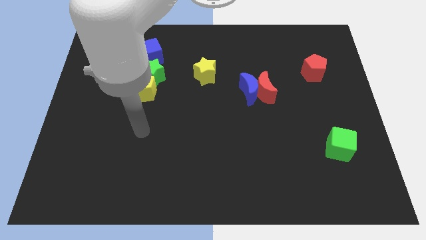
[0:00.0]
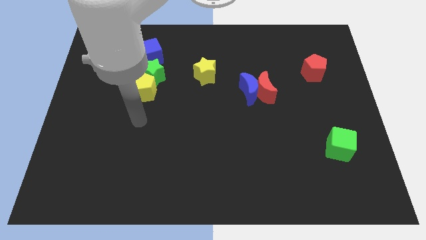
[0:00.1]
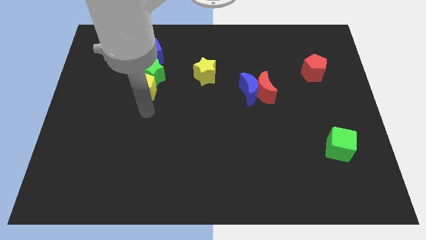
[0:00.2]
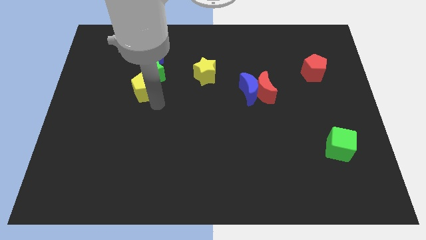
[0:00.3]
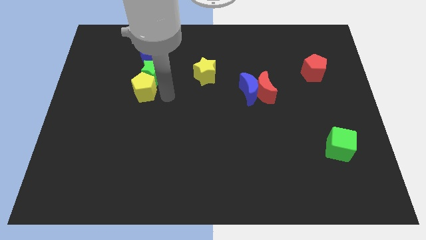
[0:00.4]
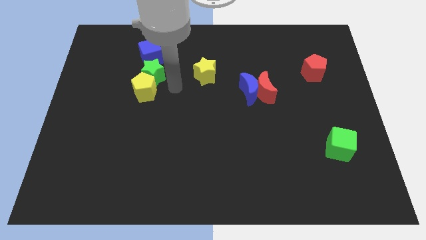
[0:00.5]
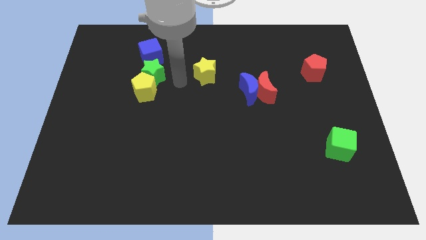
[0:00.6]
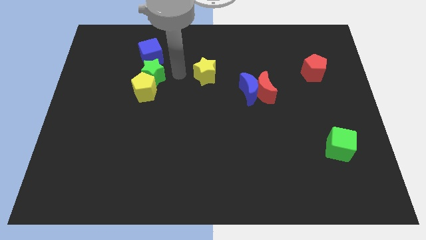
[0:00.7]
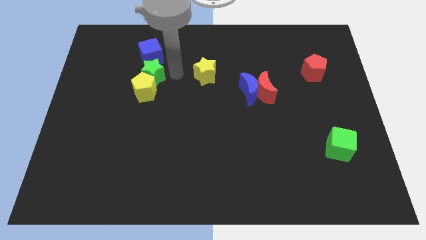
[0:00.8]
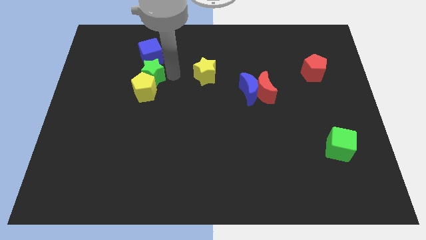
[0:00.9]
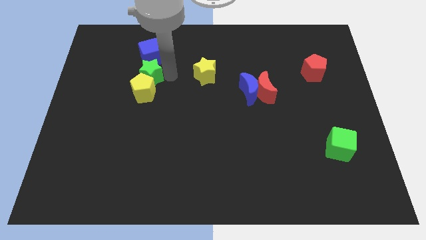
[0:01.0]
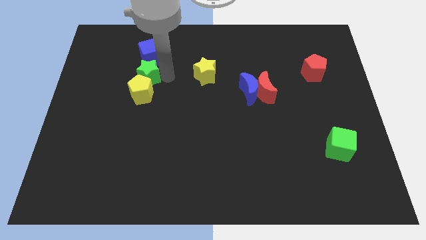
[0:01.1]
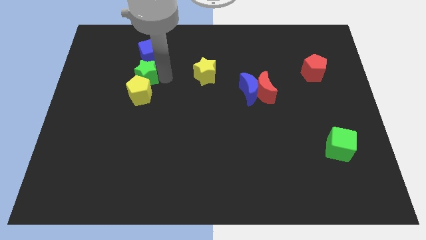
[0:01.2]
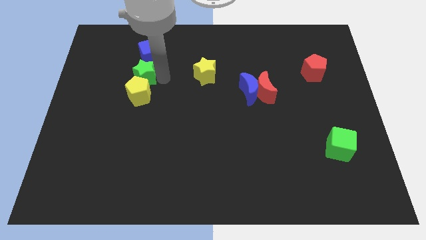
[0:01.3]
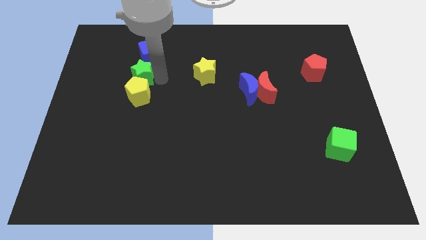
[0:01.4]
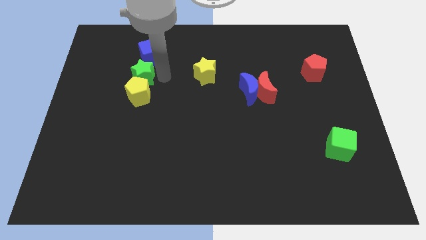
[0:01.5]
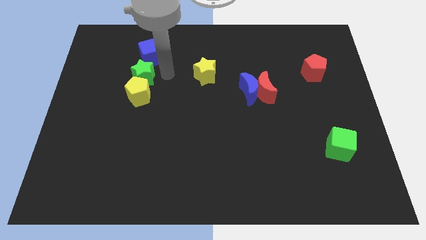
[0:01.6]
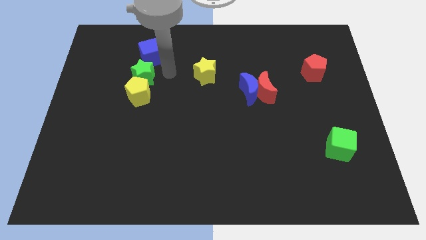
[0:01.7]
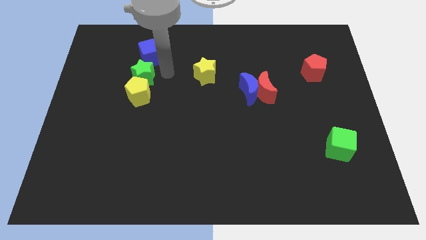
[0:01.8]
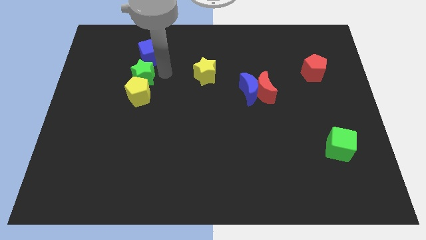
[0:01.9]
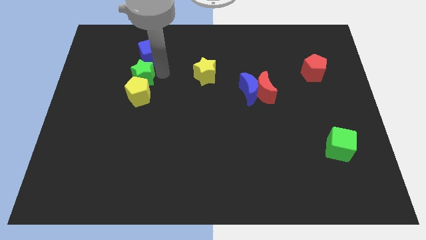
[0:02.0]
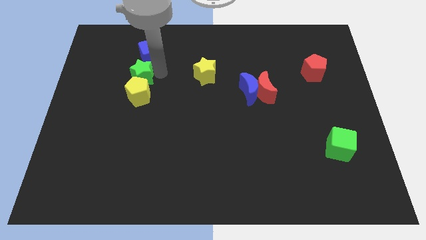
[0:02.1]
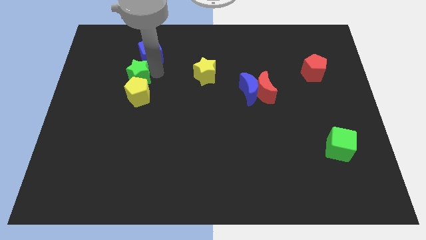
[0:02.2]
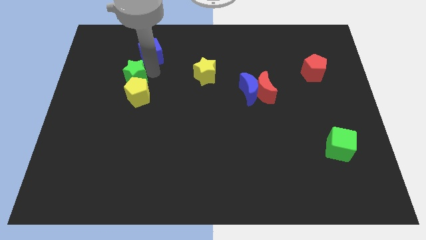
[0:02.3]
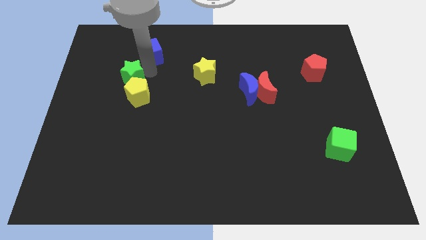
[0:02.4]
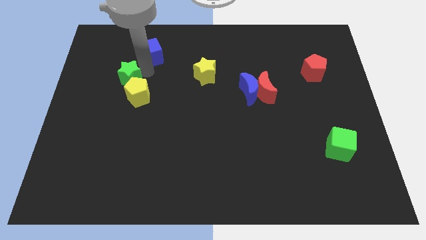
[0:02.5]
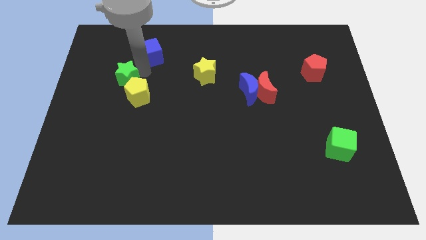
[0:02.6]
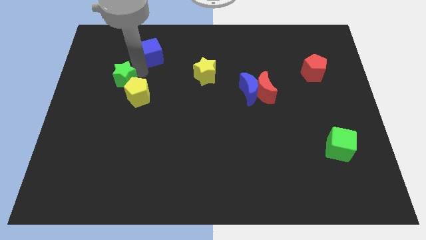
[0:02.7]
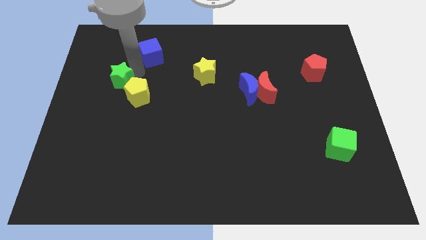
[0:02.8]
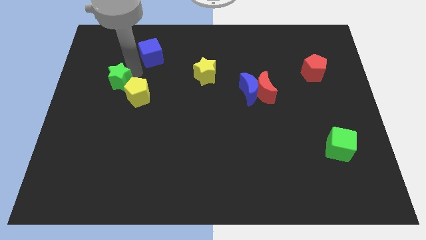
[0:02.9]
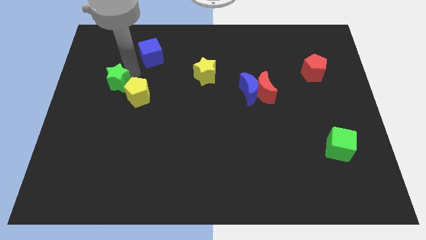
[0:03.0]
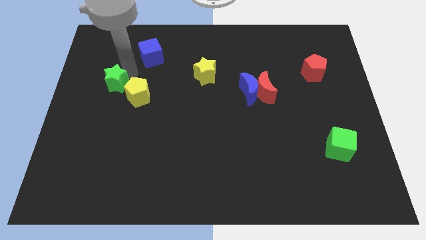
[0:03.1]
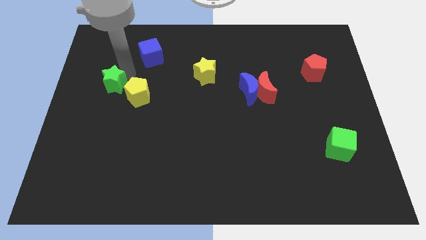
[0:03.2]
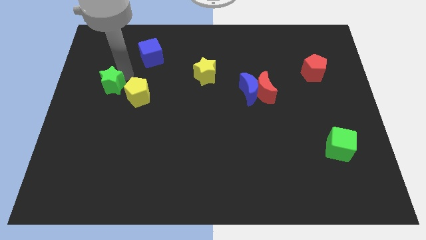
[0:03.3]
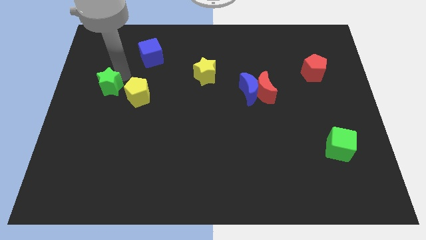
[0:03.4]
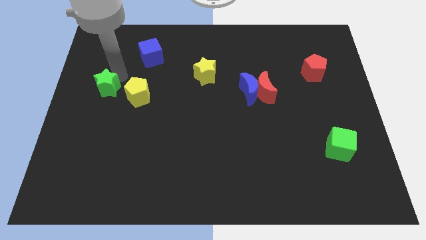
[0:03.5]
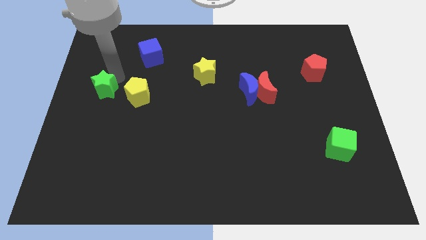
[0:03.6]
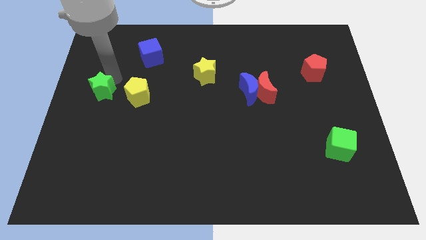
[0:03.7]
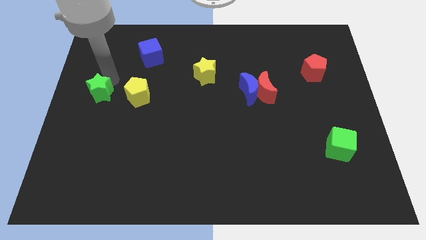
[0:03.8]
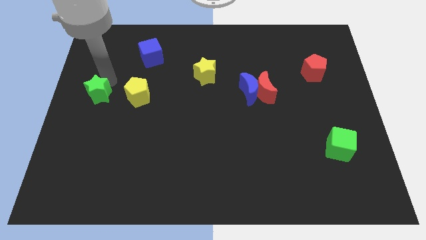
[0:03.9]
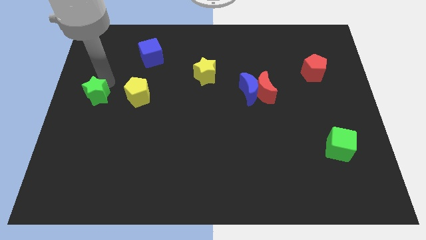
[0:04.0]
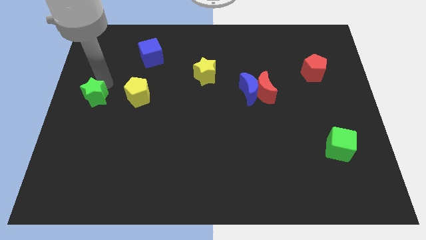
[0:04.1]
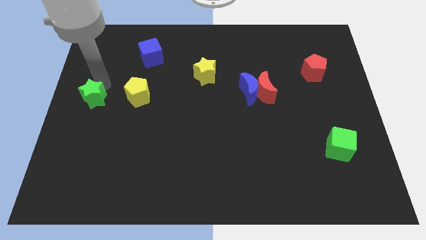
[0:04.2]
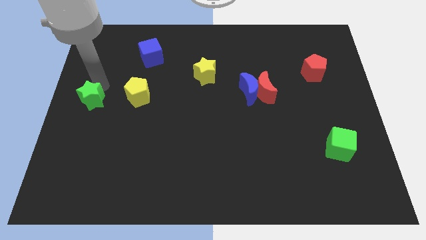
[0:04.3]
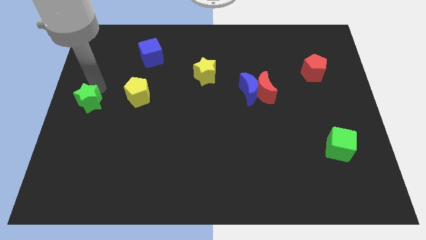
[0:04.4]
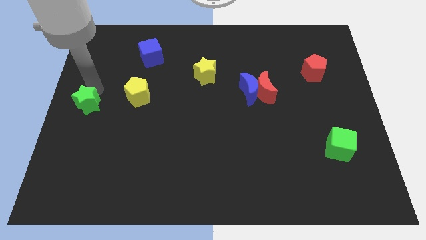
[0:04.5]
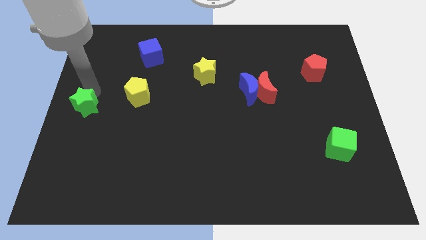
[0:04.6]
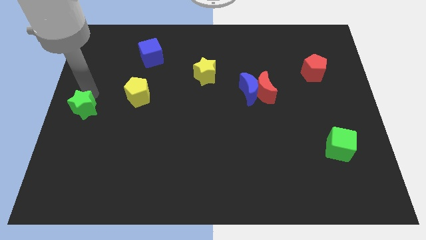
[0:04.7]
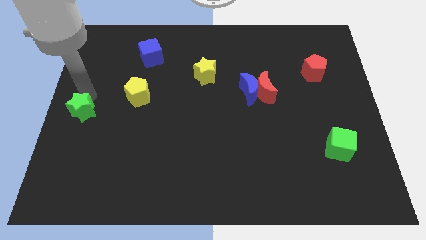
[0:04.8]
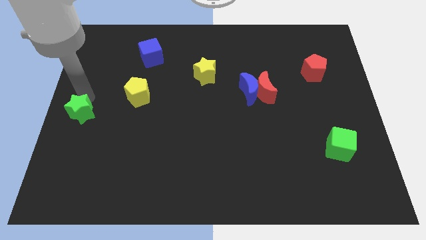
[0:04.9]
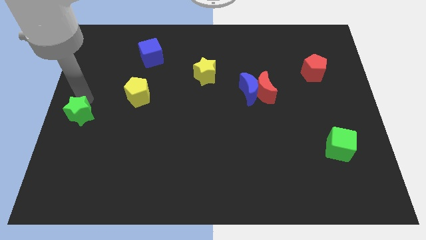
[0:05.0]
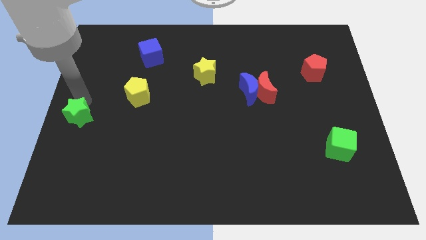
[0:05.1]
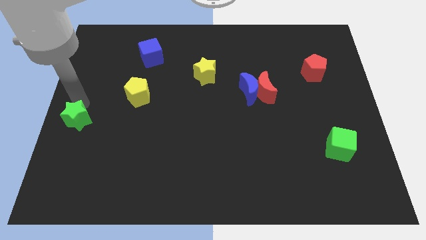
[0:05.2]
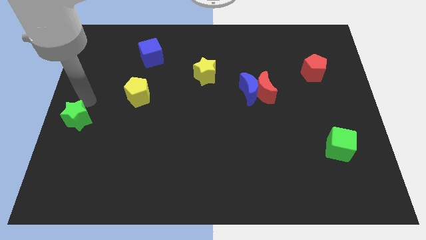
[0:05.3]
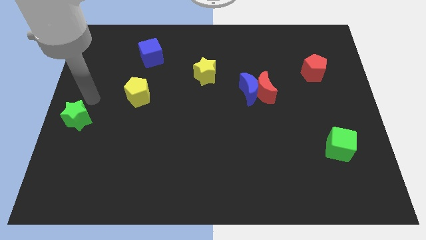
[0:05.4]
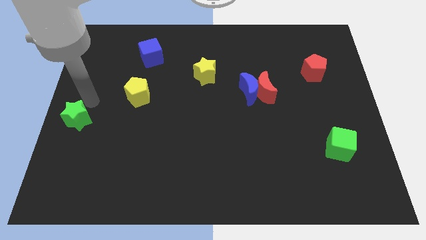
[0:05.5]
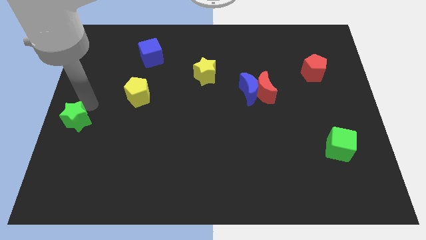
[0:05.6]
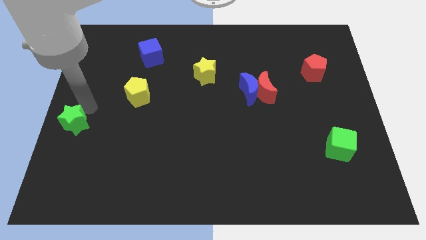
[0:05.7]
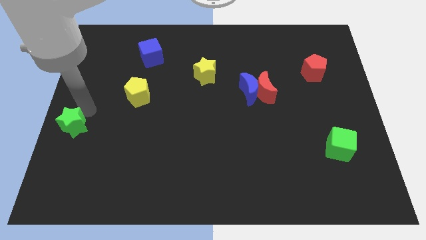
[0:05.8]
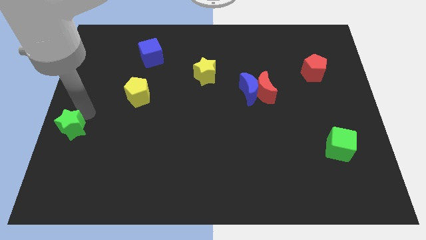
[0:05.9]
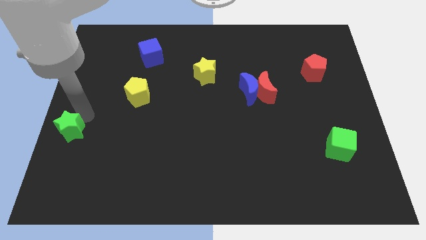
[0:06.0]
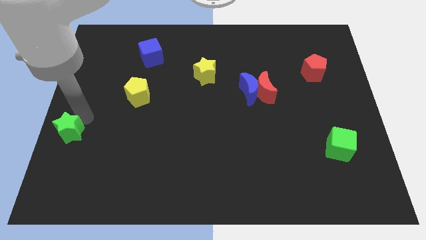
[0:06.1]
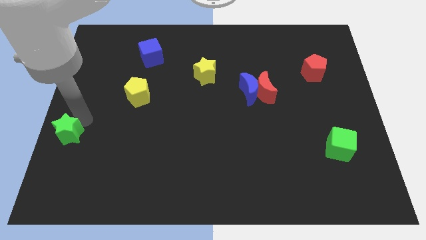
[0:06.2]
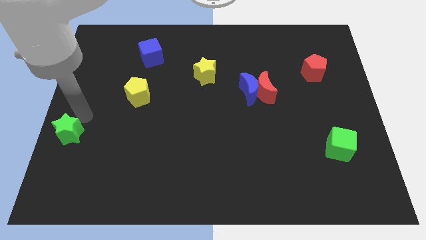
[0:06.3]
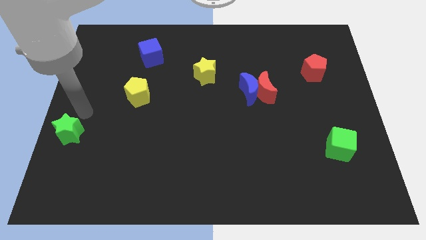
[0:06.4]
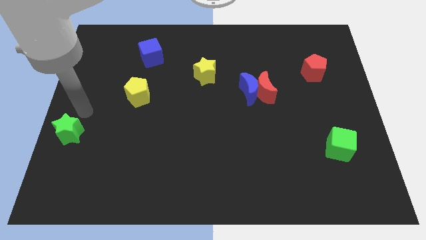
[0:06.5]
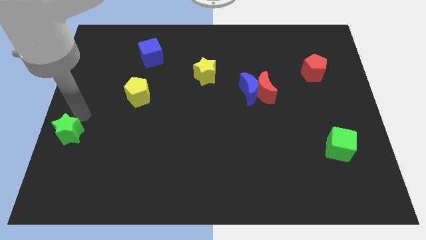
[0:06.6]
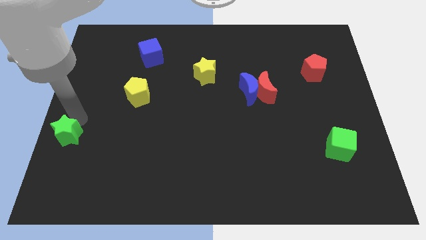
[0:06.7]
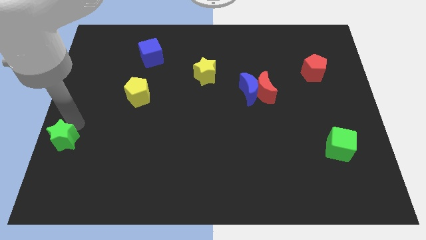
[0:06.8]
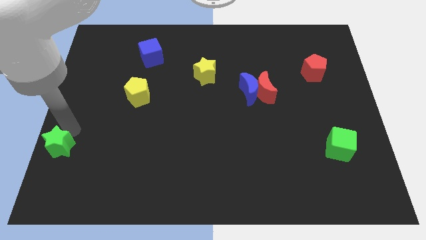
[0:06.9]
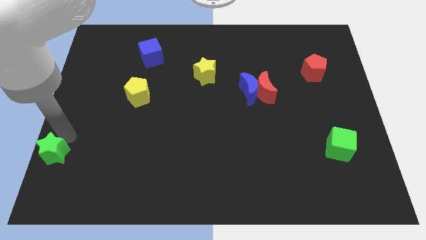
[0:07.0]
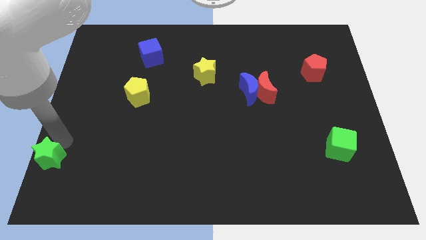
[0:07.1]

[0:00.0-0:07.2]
move the green star to the bottom left of the board
